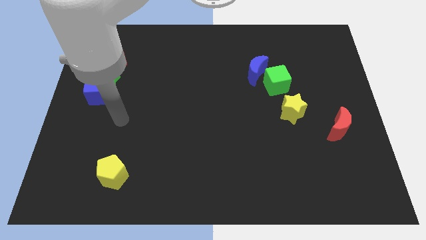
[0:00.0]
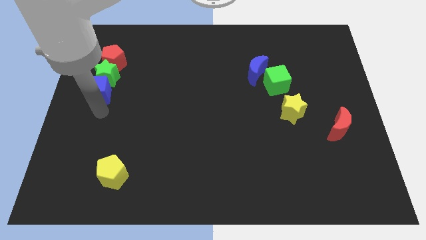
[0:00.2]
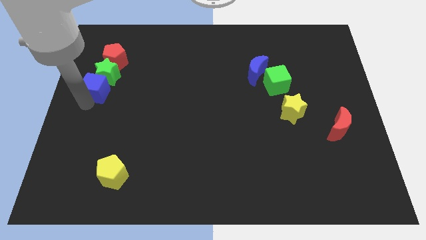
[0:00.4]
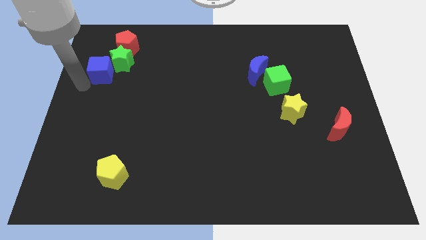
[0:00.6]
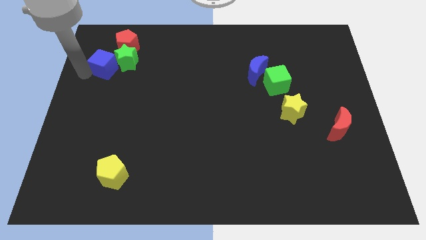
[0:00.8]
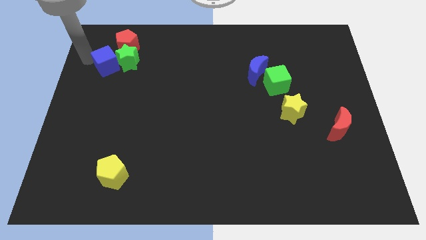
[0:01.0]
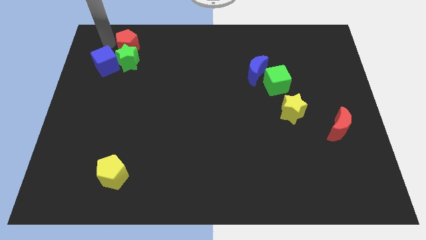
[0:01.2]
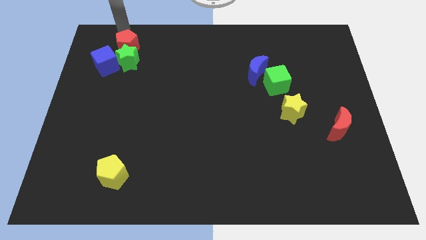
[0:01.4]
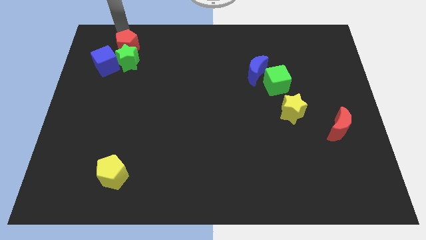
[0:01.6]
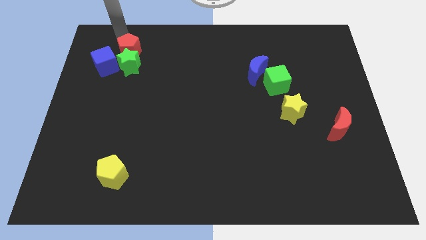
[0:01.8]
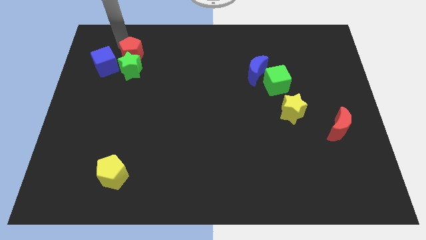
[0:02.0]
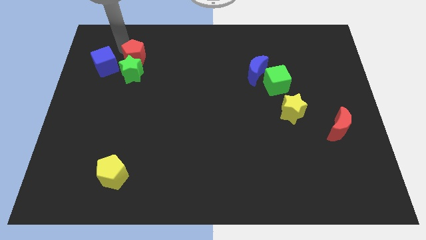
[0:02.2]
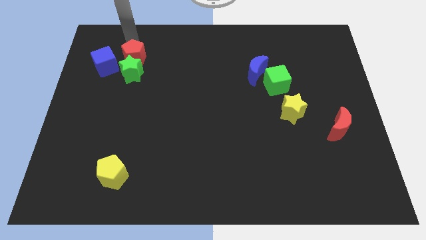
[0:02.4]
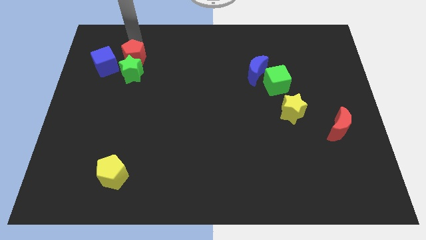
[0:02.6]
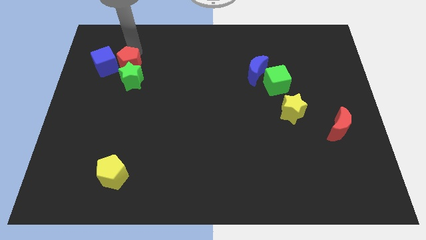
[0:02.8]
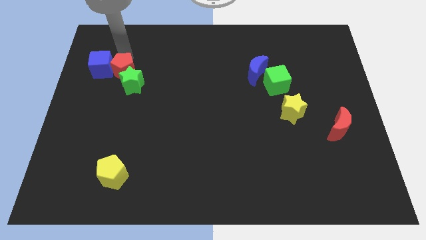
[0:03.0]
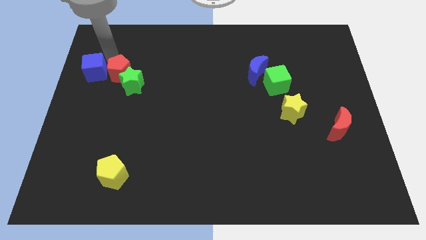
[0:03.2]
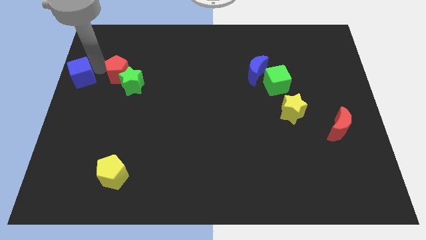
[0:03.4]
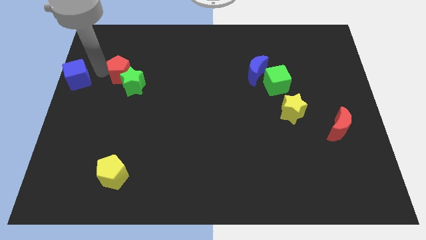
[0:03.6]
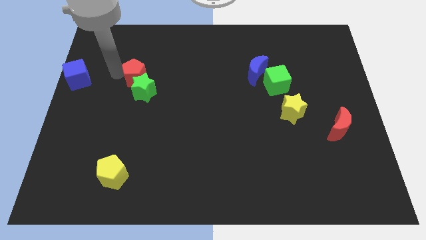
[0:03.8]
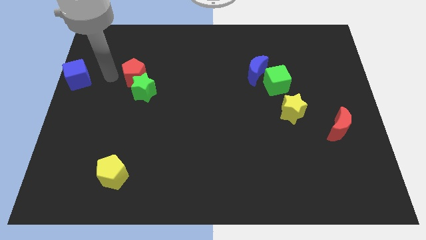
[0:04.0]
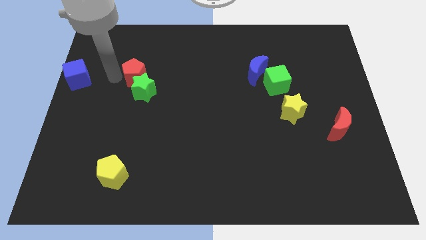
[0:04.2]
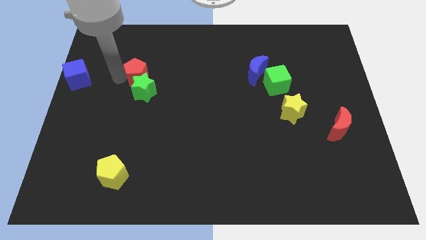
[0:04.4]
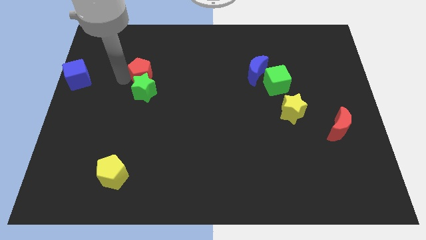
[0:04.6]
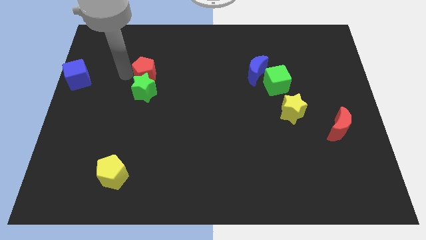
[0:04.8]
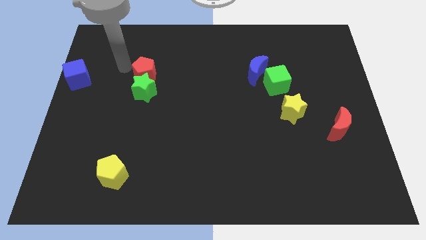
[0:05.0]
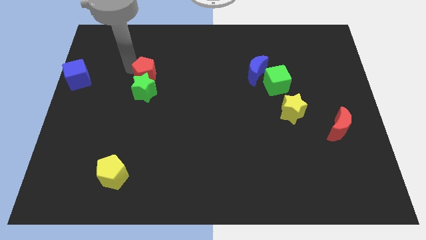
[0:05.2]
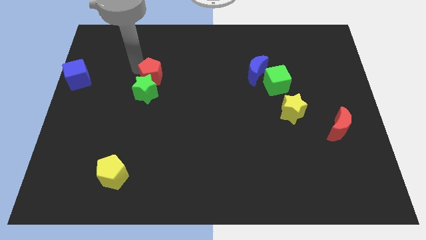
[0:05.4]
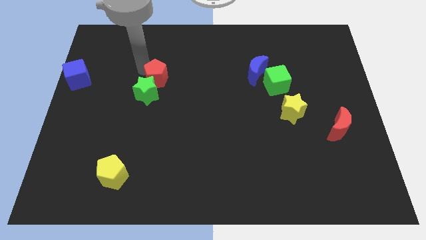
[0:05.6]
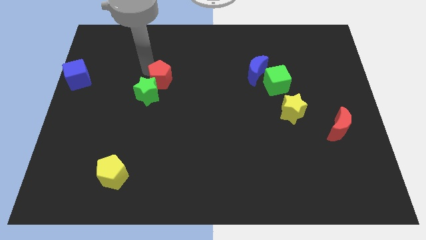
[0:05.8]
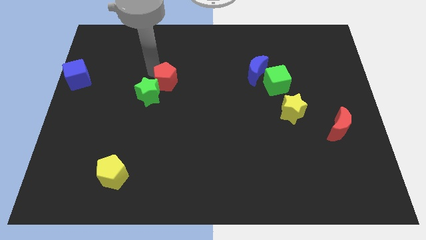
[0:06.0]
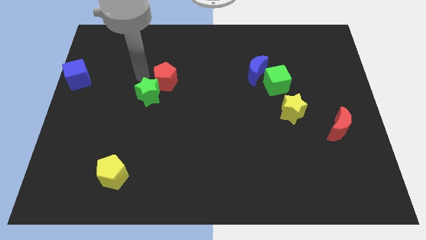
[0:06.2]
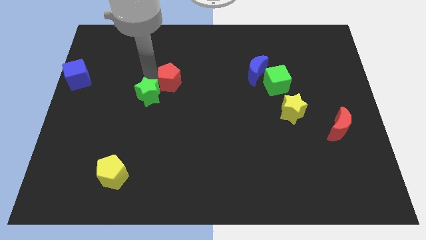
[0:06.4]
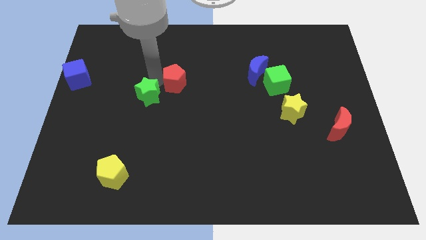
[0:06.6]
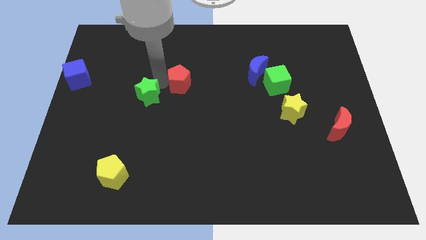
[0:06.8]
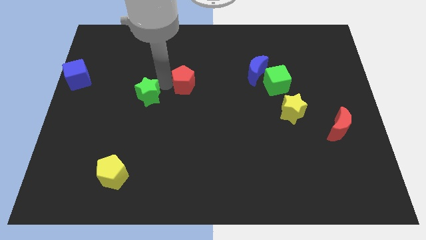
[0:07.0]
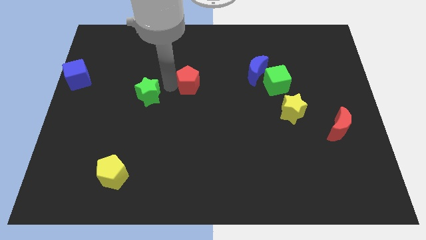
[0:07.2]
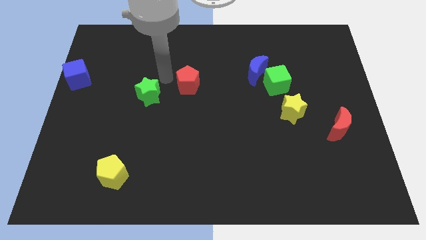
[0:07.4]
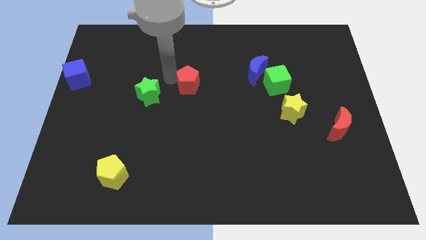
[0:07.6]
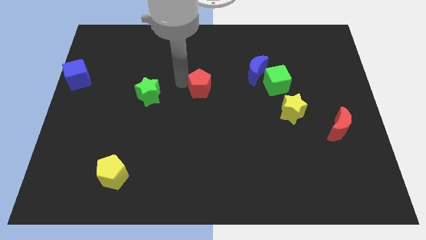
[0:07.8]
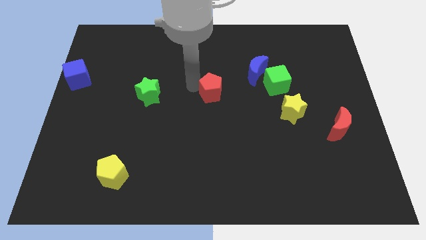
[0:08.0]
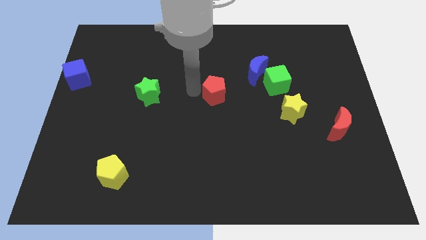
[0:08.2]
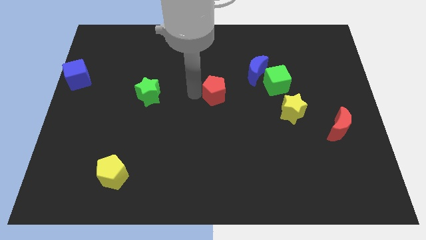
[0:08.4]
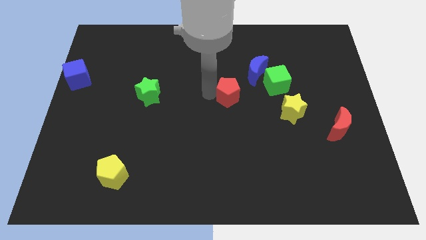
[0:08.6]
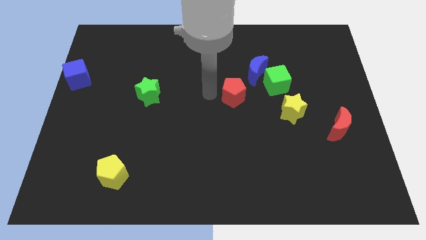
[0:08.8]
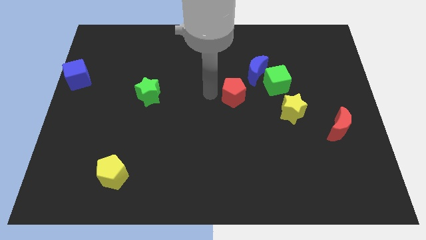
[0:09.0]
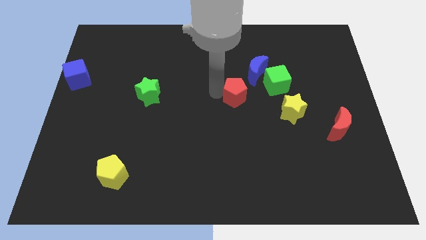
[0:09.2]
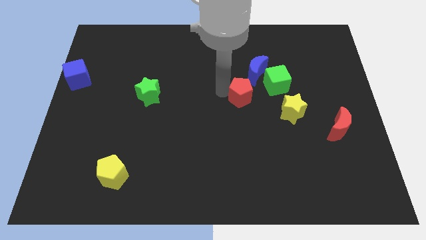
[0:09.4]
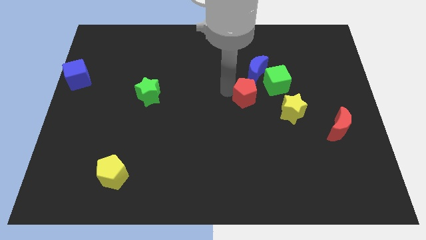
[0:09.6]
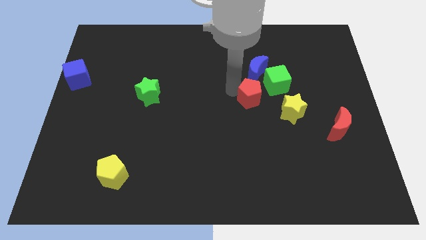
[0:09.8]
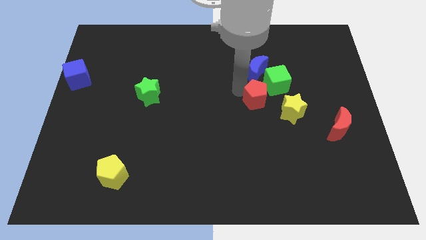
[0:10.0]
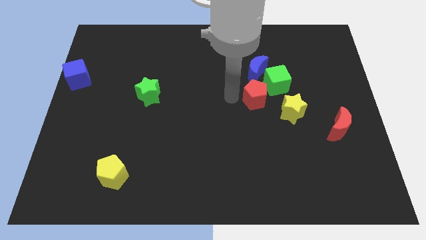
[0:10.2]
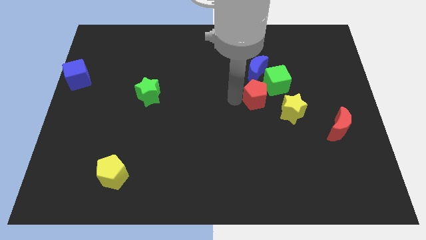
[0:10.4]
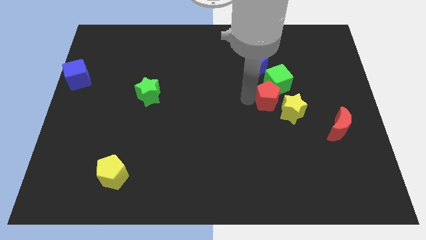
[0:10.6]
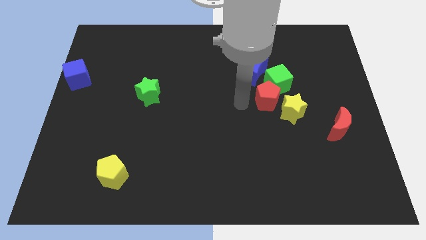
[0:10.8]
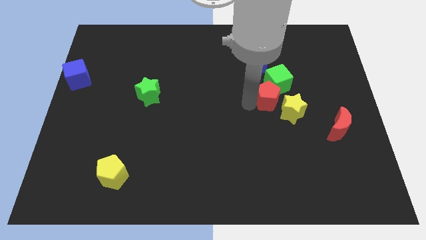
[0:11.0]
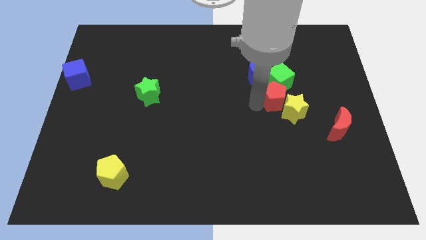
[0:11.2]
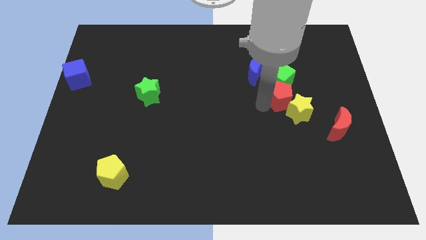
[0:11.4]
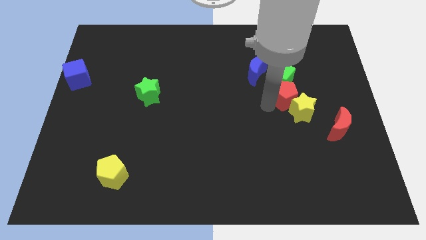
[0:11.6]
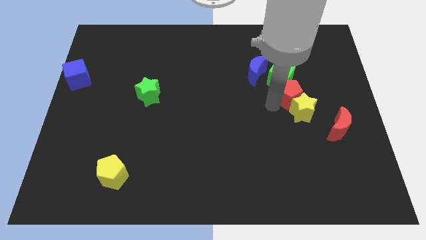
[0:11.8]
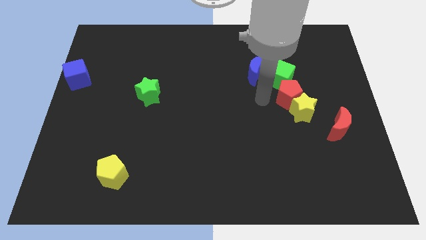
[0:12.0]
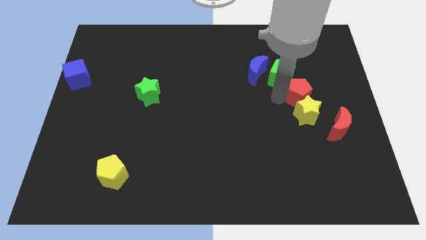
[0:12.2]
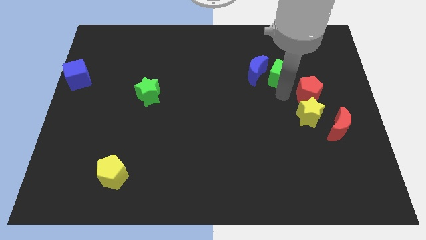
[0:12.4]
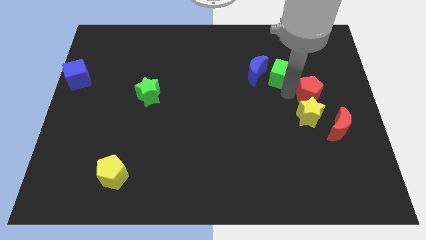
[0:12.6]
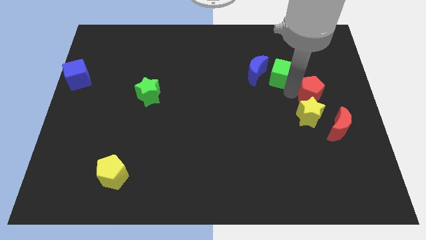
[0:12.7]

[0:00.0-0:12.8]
slide the red pentagon to the top side of the red moon
